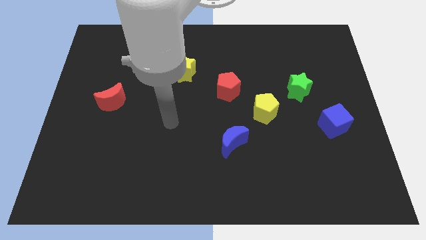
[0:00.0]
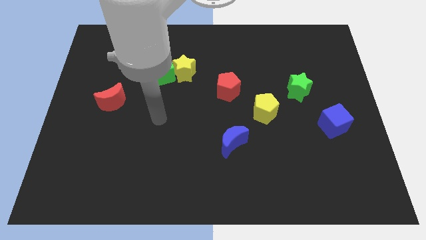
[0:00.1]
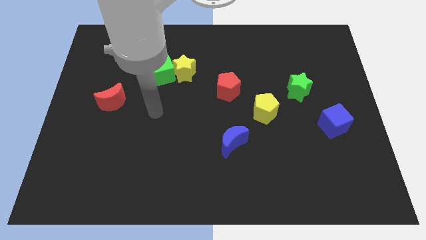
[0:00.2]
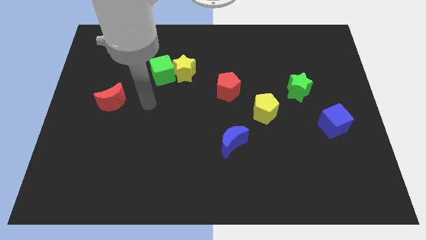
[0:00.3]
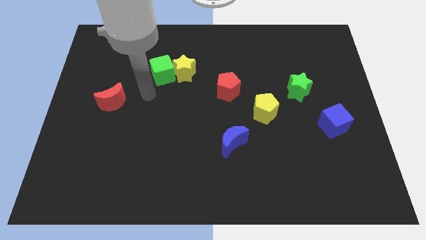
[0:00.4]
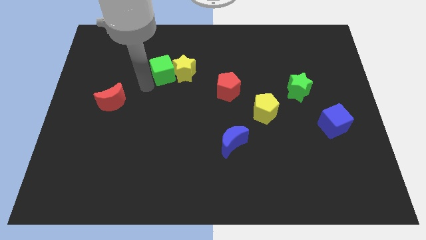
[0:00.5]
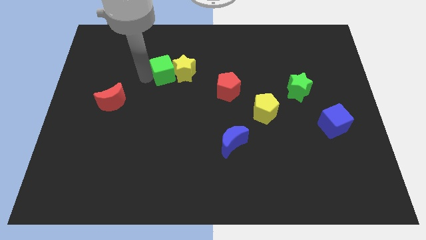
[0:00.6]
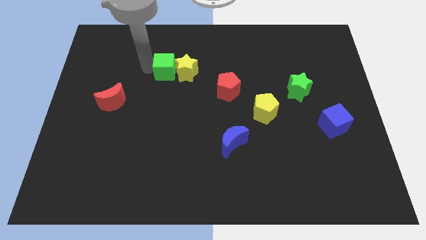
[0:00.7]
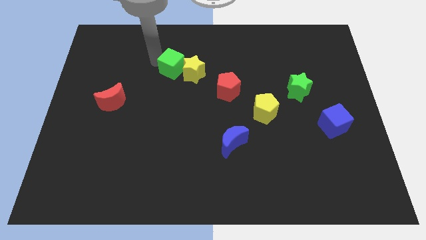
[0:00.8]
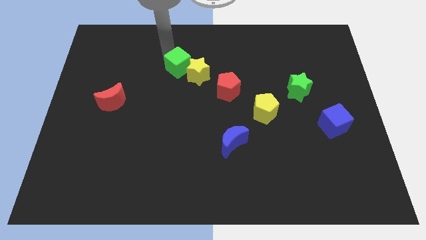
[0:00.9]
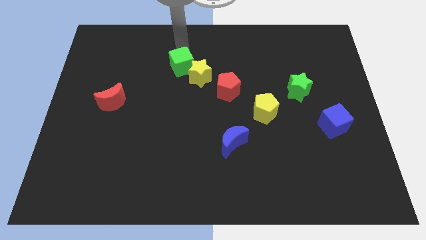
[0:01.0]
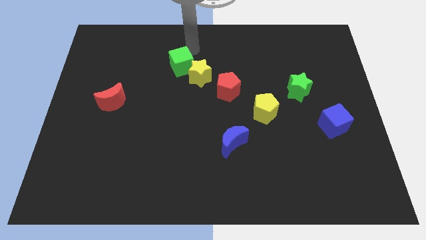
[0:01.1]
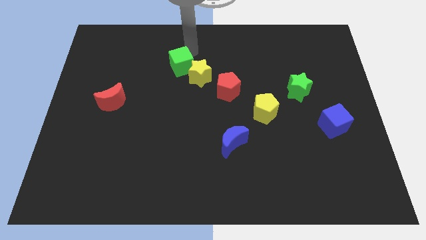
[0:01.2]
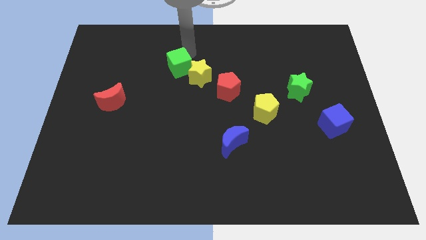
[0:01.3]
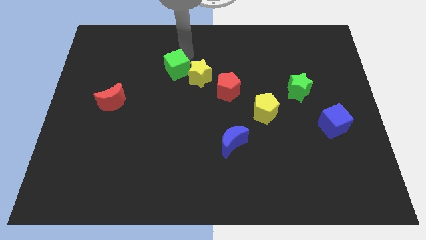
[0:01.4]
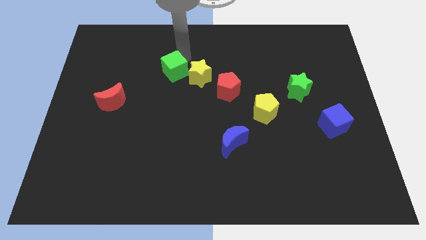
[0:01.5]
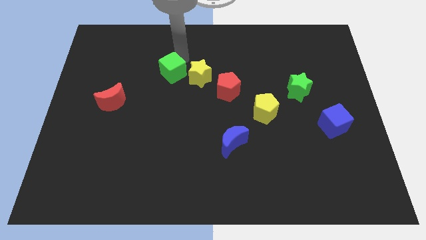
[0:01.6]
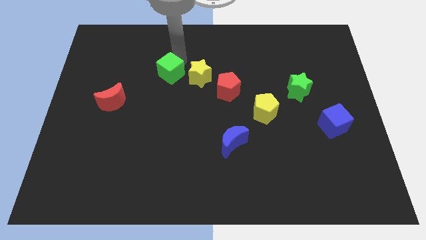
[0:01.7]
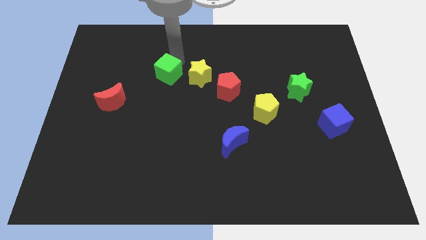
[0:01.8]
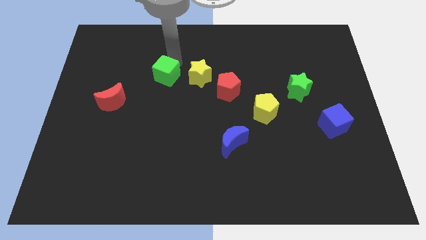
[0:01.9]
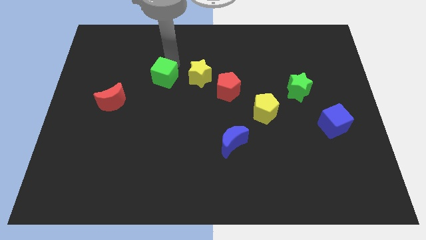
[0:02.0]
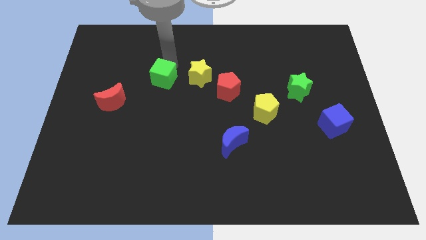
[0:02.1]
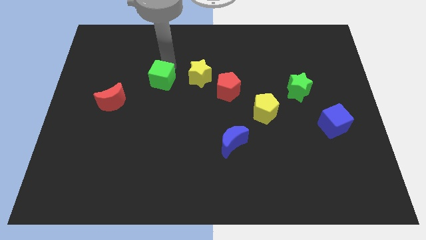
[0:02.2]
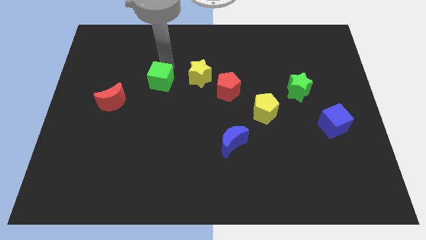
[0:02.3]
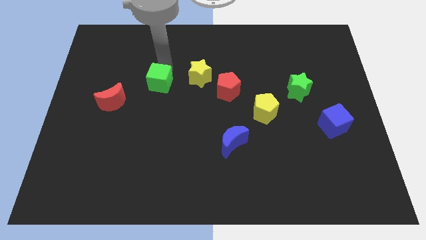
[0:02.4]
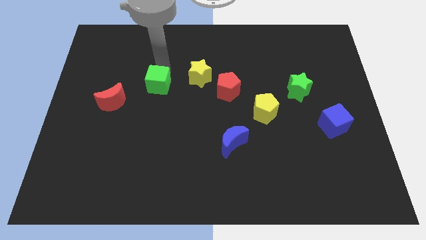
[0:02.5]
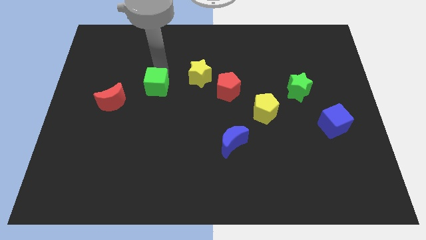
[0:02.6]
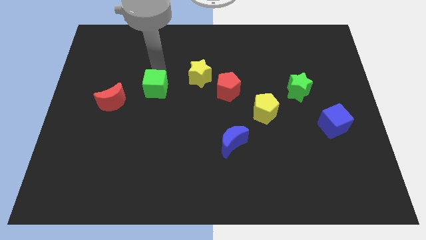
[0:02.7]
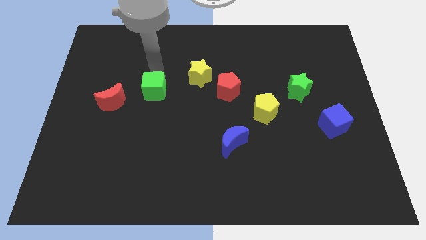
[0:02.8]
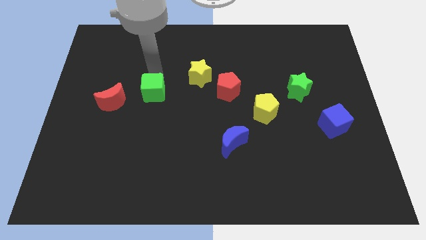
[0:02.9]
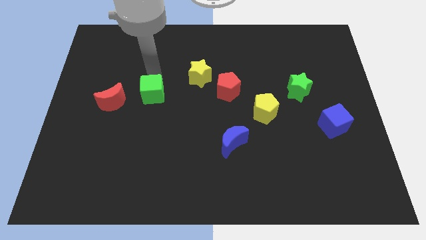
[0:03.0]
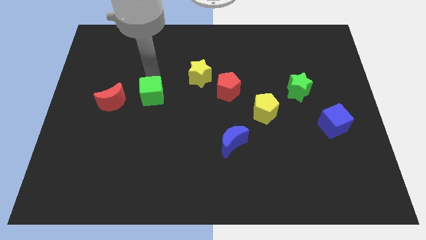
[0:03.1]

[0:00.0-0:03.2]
slightly push the green cube down

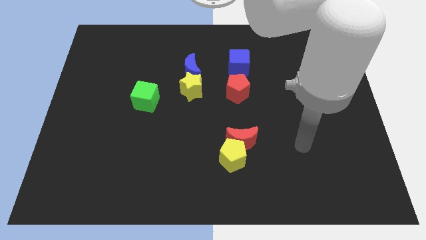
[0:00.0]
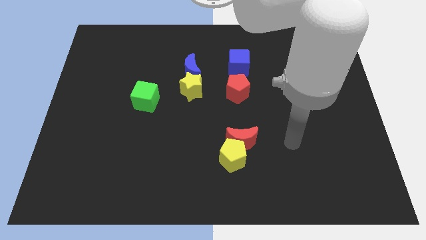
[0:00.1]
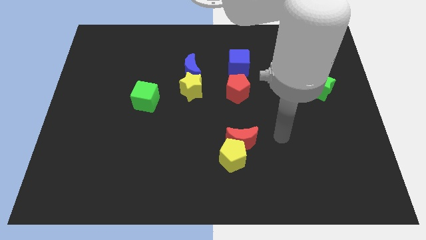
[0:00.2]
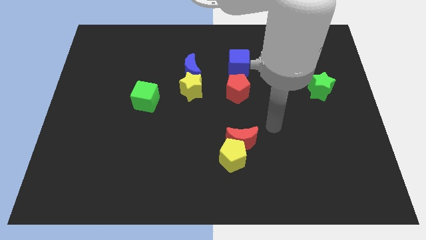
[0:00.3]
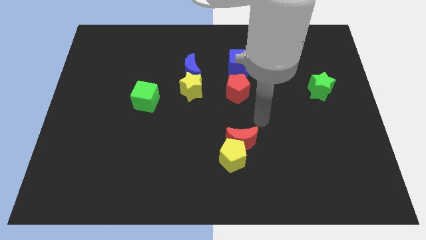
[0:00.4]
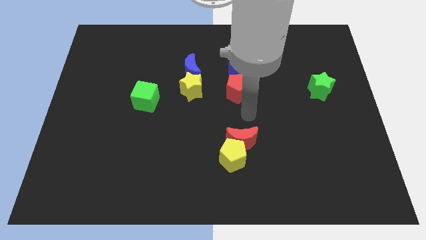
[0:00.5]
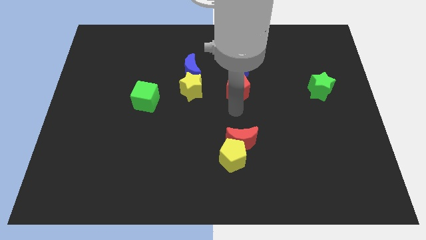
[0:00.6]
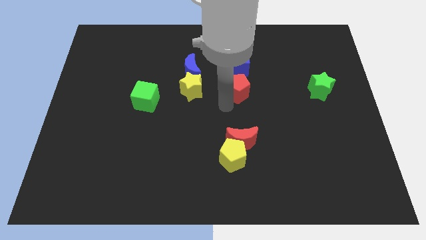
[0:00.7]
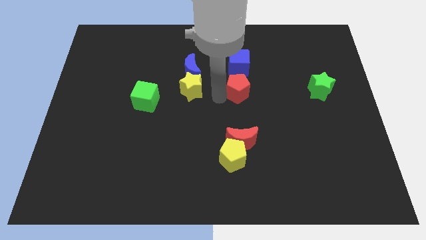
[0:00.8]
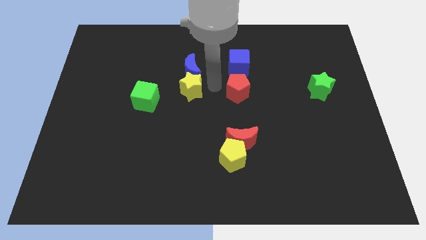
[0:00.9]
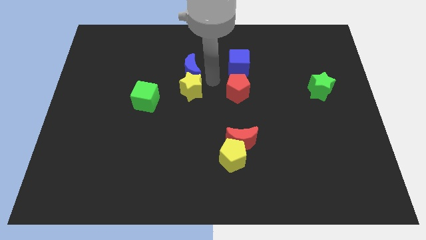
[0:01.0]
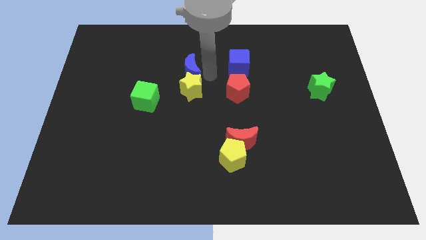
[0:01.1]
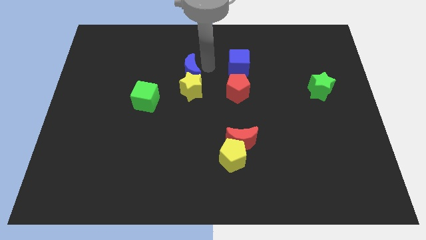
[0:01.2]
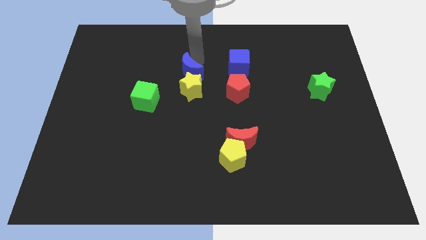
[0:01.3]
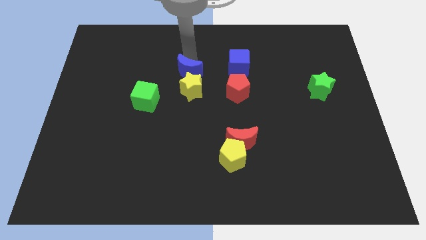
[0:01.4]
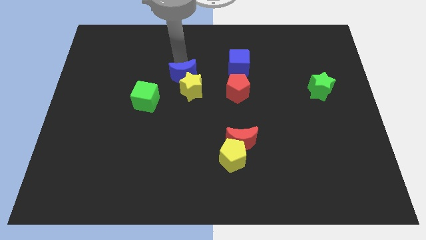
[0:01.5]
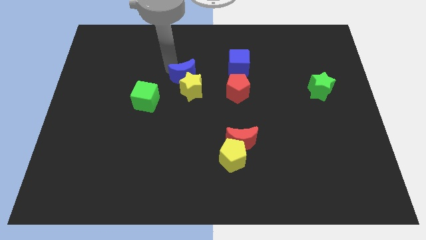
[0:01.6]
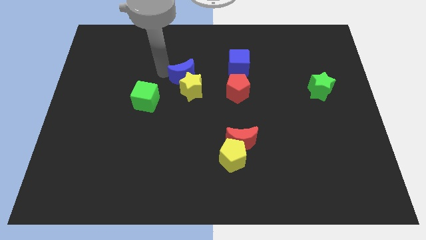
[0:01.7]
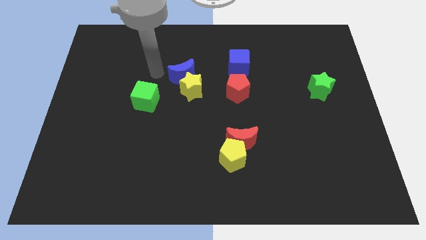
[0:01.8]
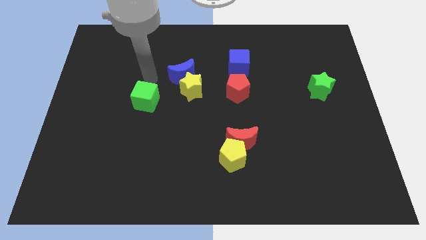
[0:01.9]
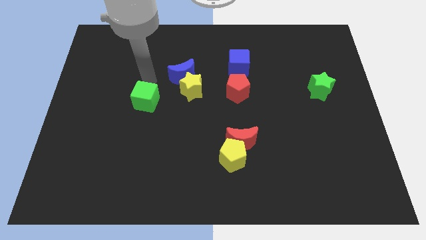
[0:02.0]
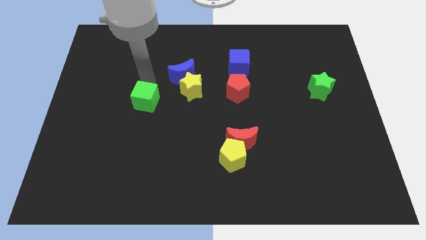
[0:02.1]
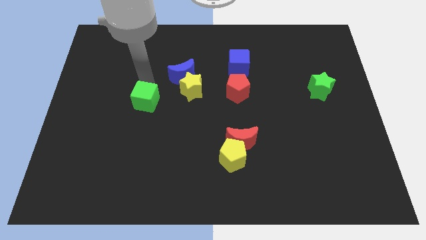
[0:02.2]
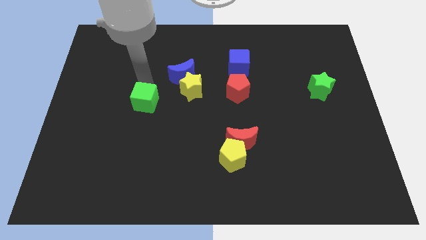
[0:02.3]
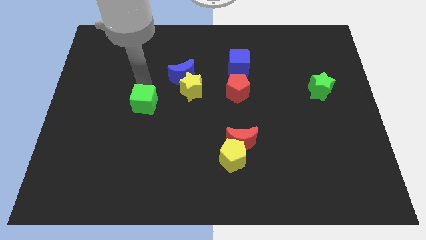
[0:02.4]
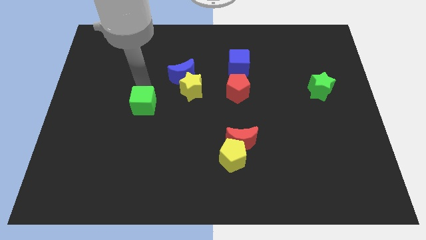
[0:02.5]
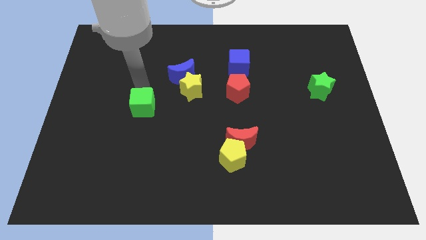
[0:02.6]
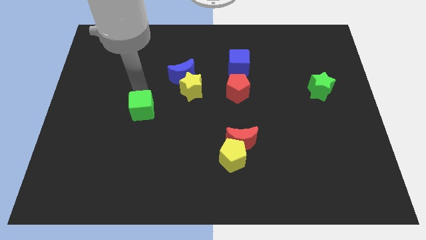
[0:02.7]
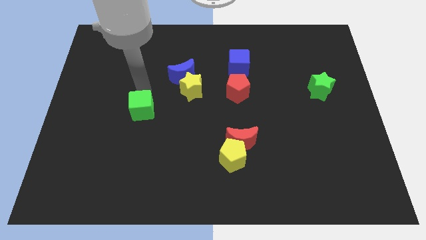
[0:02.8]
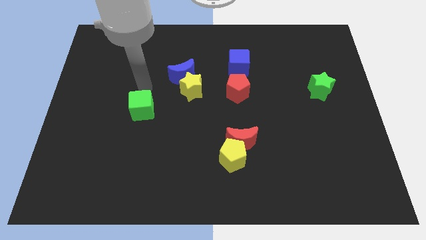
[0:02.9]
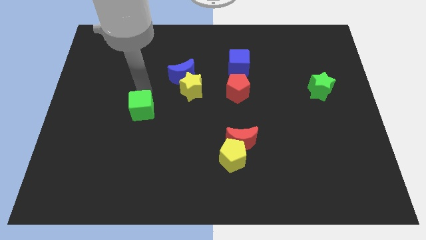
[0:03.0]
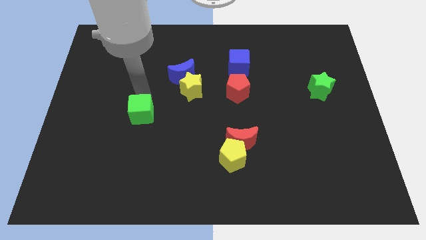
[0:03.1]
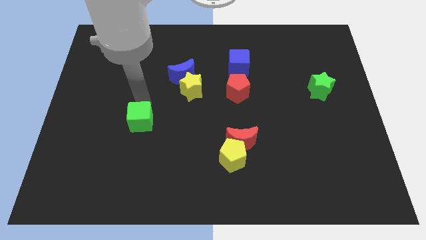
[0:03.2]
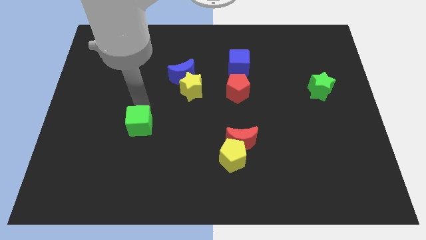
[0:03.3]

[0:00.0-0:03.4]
push the green cube a bit downwards

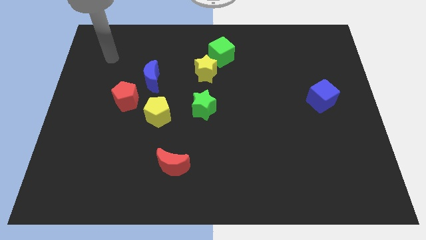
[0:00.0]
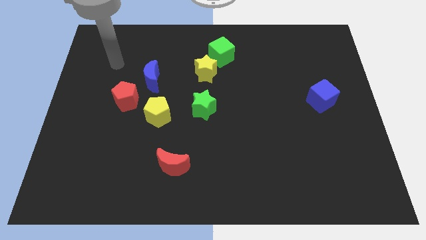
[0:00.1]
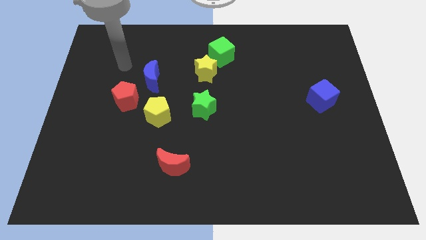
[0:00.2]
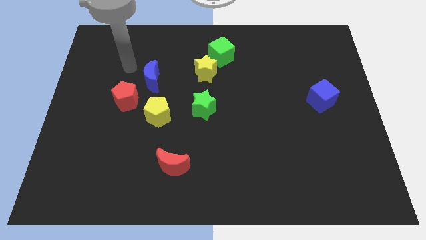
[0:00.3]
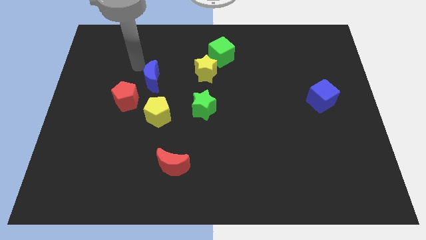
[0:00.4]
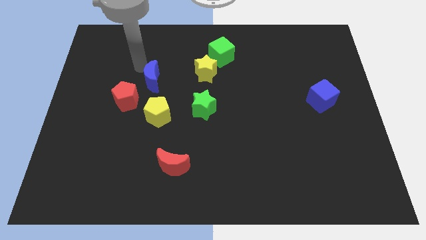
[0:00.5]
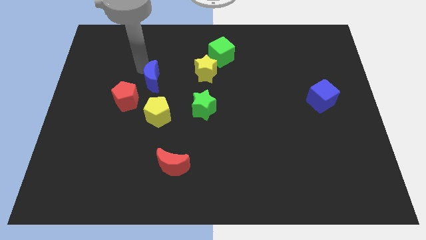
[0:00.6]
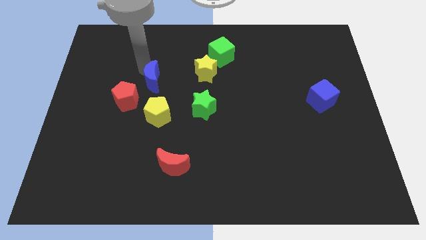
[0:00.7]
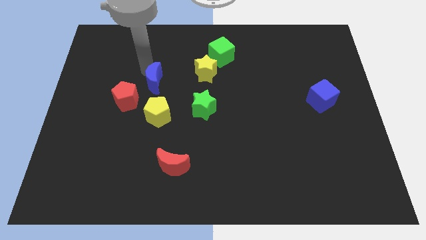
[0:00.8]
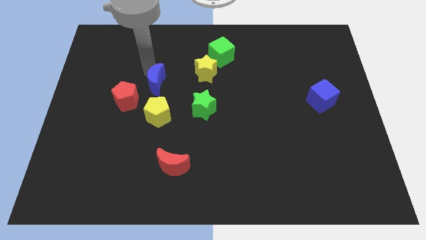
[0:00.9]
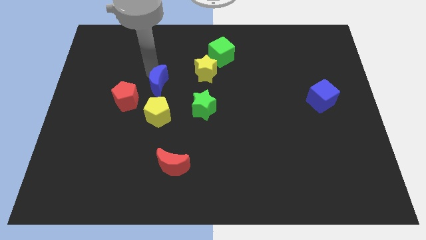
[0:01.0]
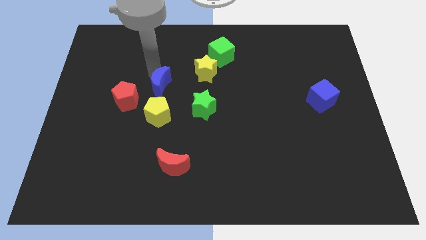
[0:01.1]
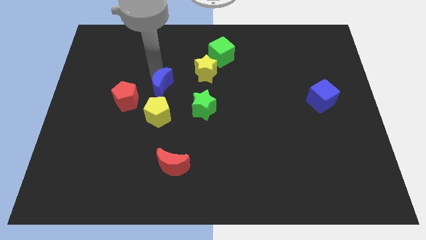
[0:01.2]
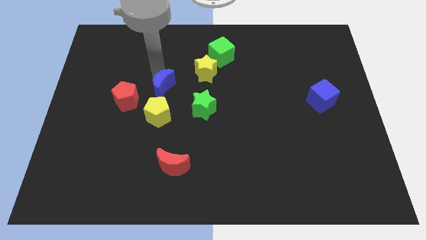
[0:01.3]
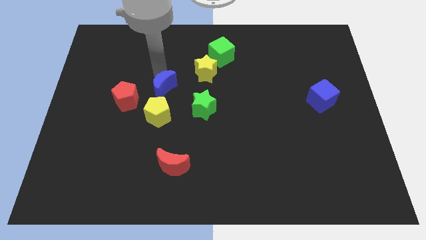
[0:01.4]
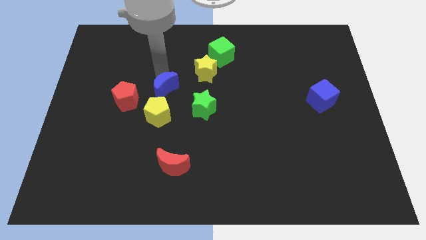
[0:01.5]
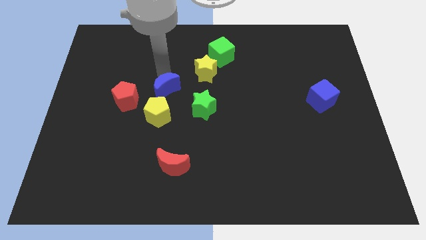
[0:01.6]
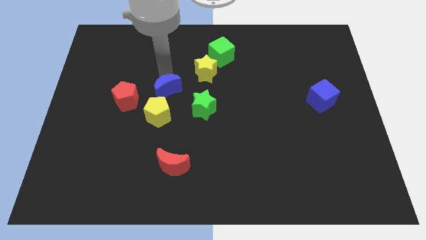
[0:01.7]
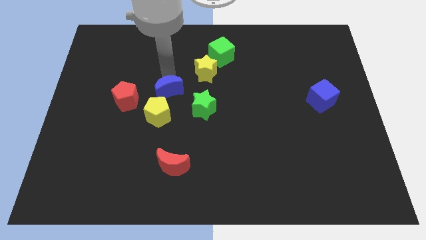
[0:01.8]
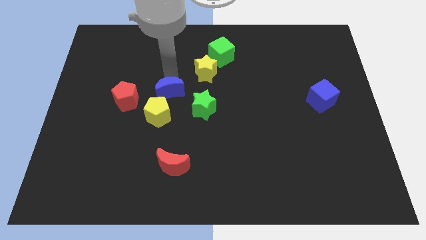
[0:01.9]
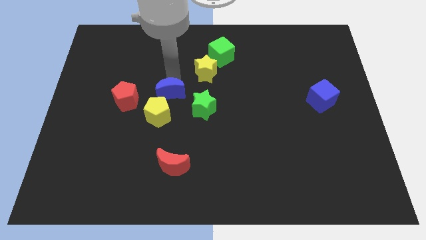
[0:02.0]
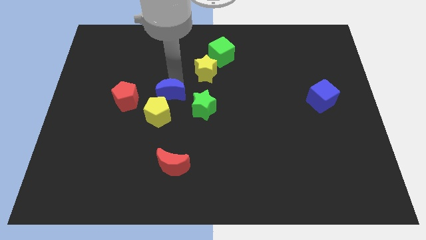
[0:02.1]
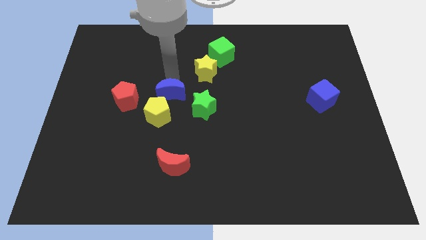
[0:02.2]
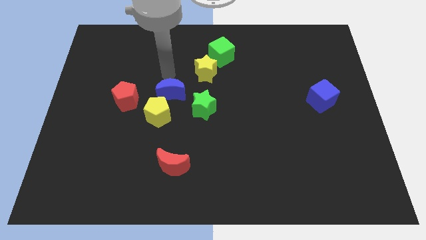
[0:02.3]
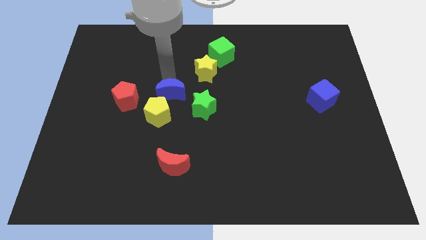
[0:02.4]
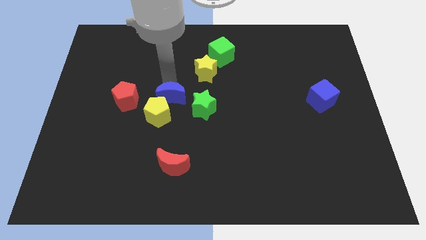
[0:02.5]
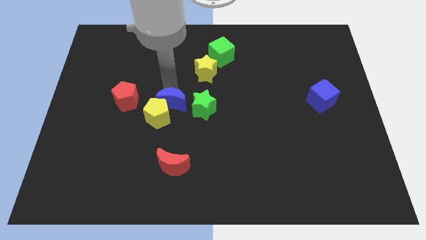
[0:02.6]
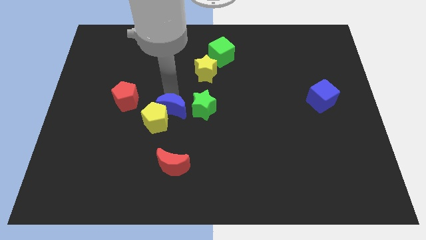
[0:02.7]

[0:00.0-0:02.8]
move the blue moon down a bit
